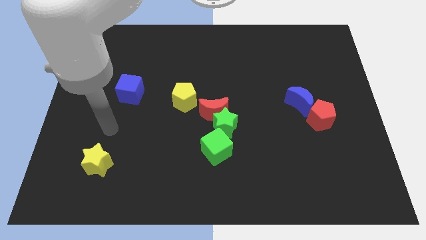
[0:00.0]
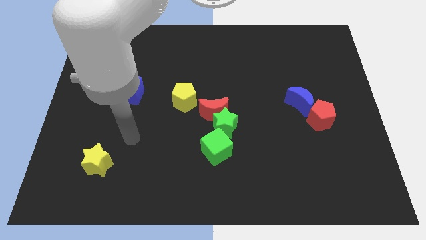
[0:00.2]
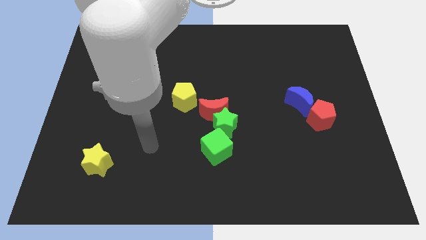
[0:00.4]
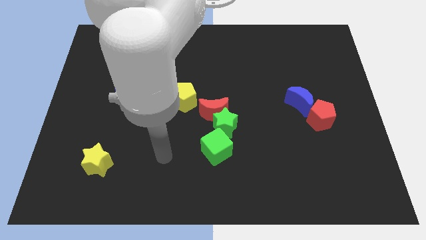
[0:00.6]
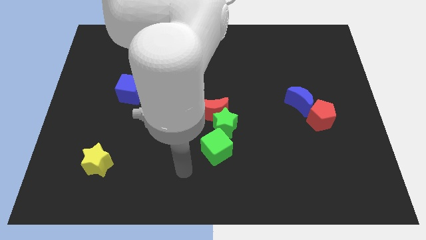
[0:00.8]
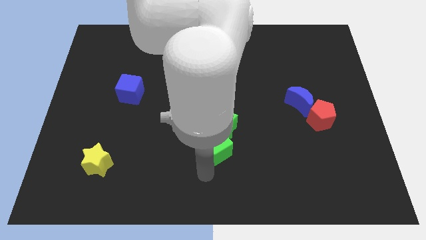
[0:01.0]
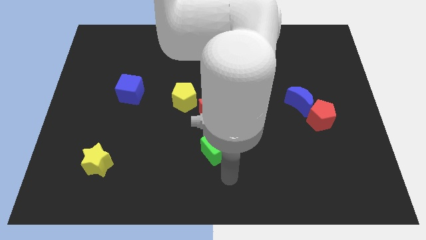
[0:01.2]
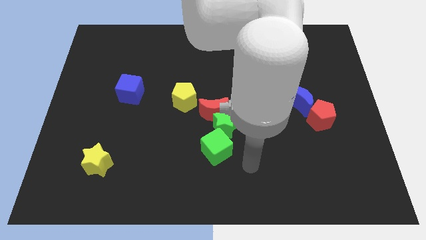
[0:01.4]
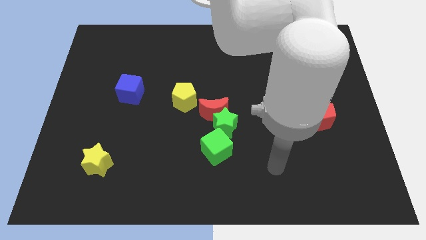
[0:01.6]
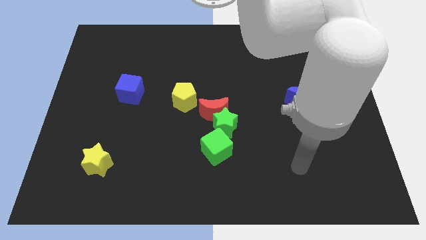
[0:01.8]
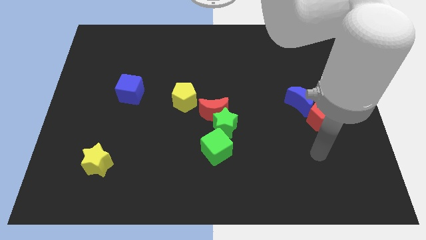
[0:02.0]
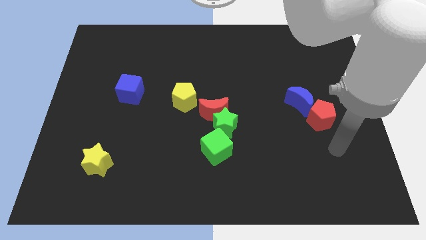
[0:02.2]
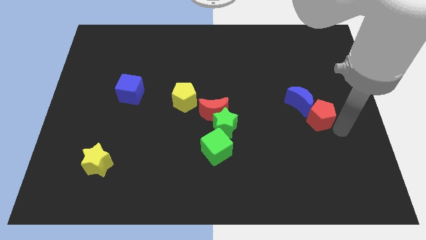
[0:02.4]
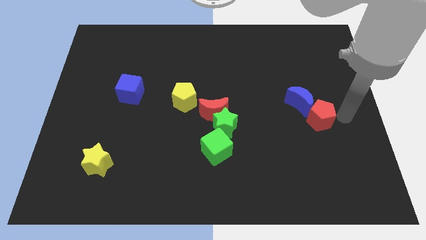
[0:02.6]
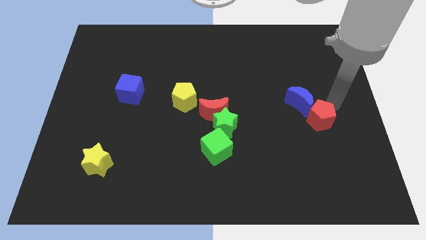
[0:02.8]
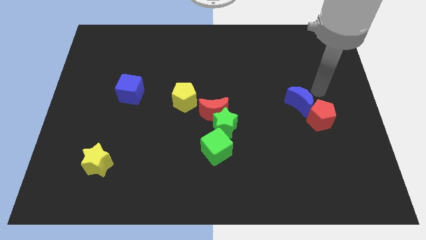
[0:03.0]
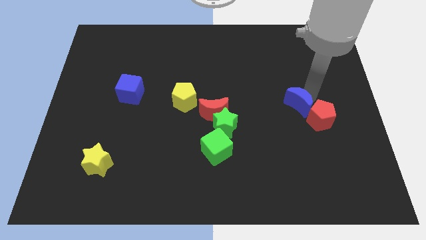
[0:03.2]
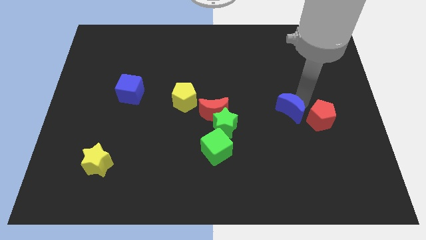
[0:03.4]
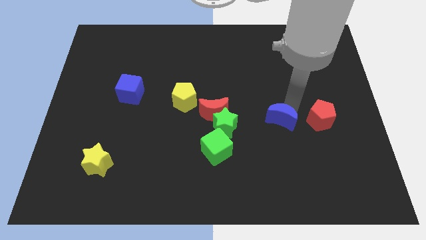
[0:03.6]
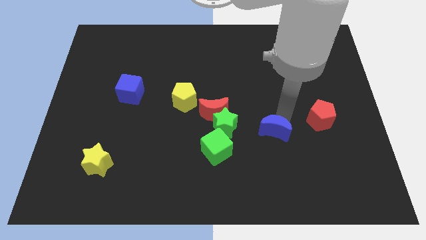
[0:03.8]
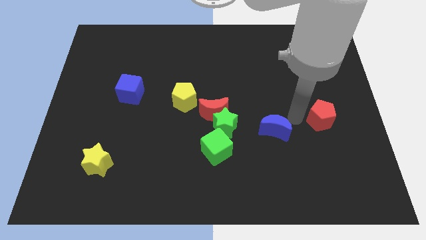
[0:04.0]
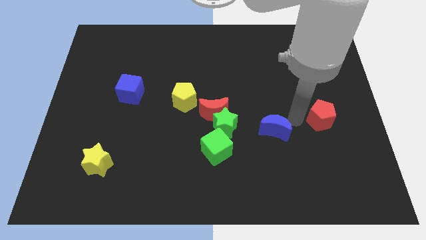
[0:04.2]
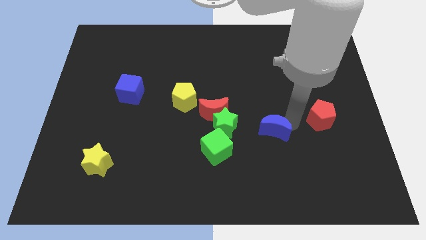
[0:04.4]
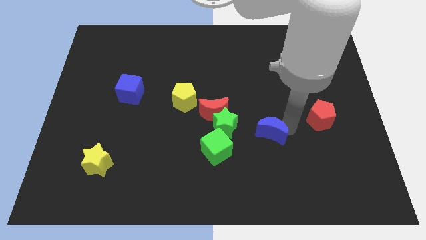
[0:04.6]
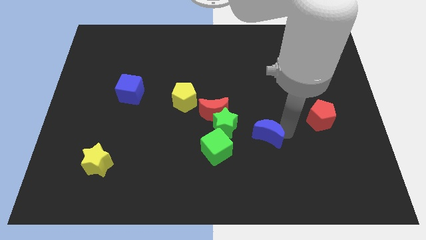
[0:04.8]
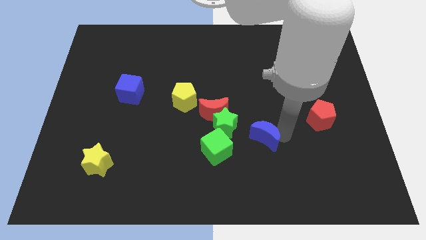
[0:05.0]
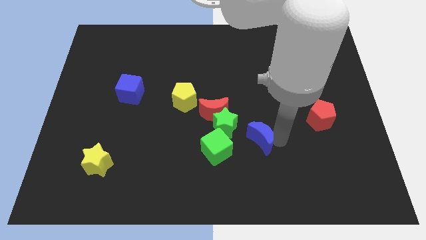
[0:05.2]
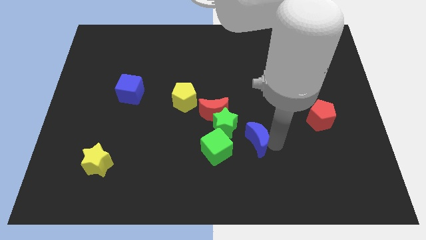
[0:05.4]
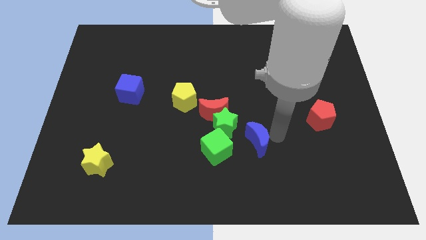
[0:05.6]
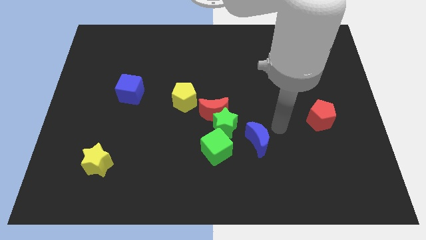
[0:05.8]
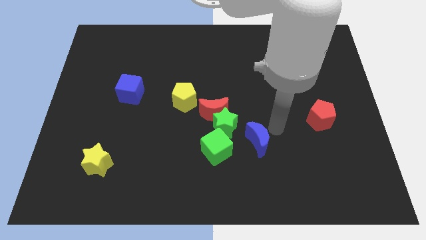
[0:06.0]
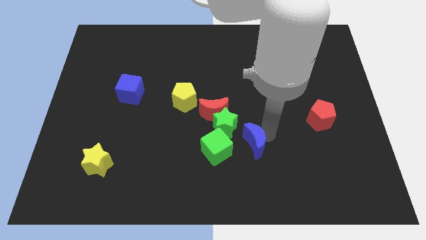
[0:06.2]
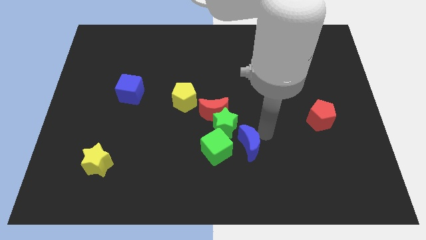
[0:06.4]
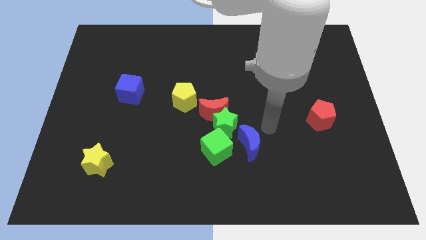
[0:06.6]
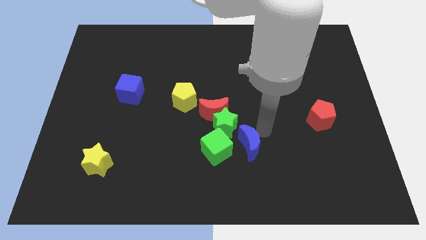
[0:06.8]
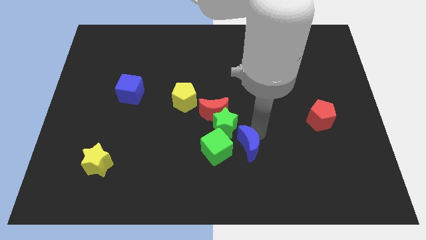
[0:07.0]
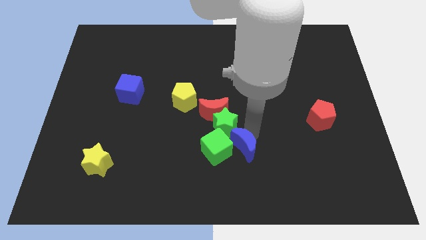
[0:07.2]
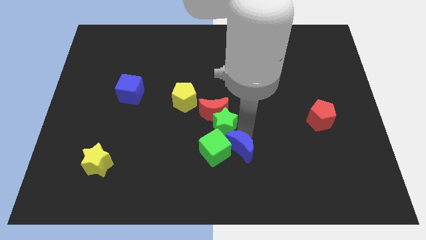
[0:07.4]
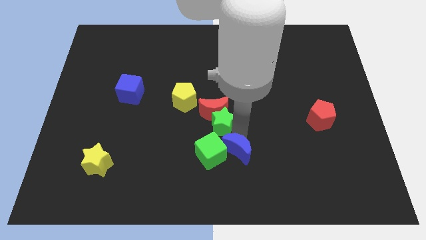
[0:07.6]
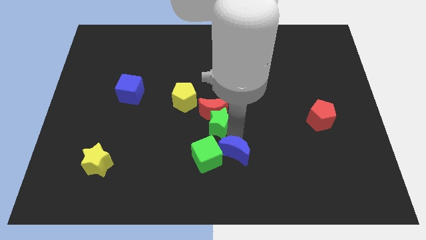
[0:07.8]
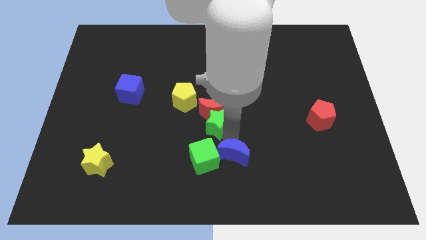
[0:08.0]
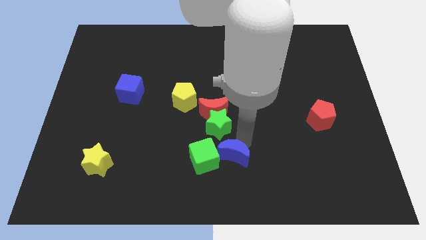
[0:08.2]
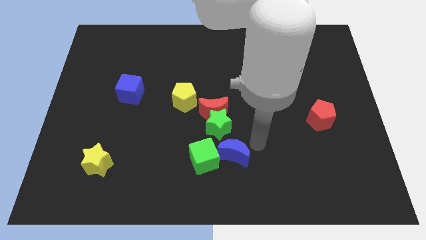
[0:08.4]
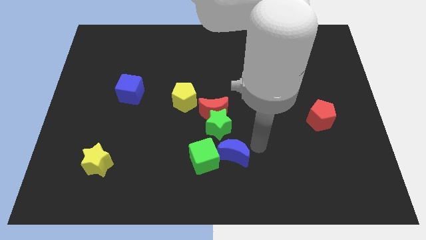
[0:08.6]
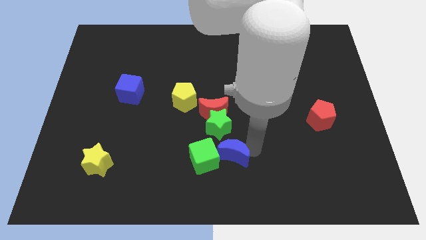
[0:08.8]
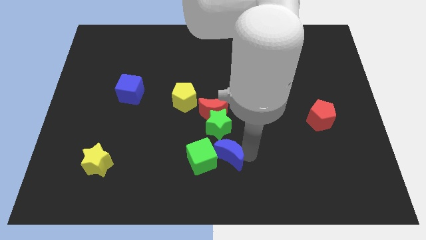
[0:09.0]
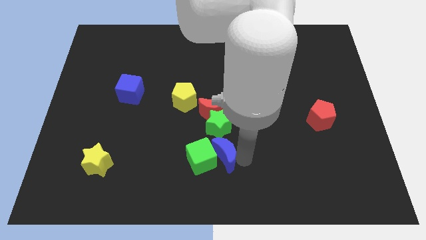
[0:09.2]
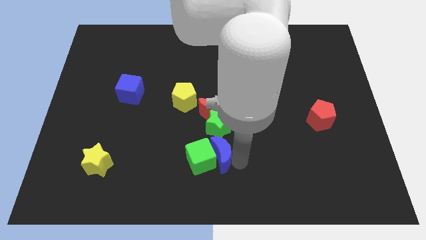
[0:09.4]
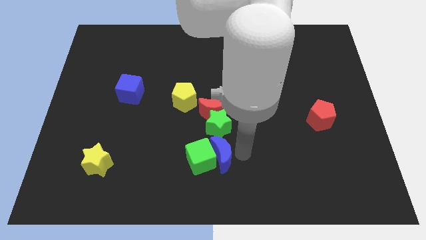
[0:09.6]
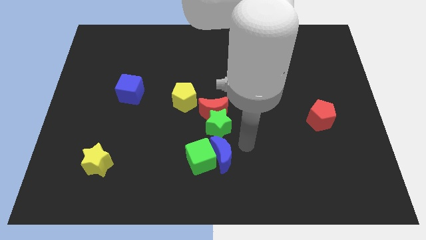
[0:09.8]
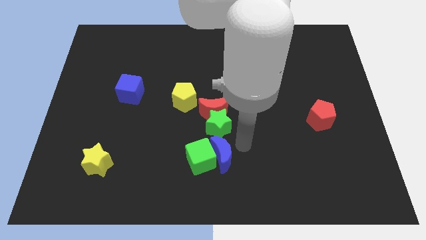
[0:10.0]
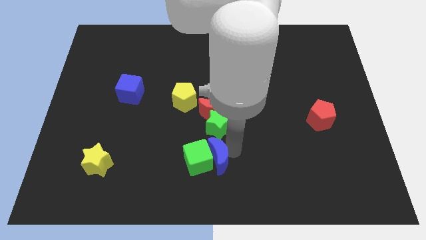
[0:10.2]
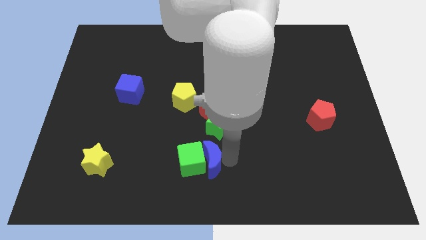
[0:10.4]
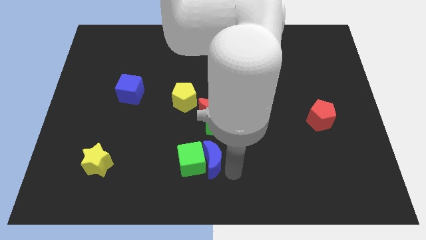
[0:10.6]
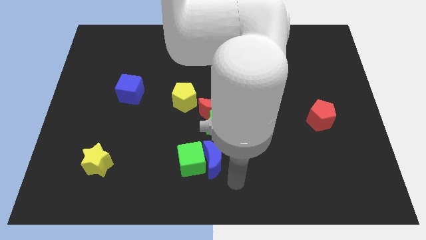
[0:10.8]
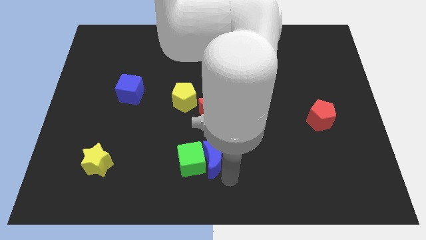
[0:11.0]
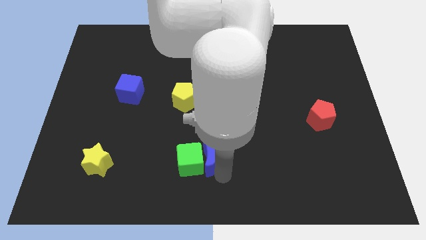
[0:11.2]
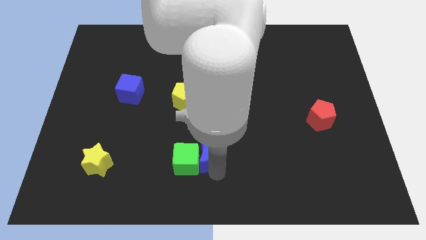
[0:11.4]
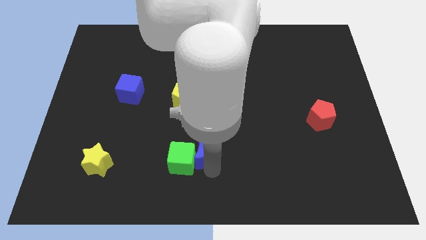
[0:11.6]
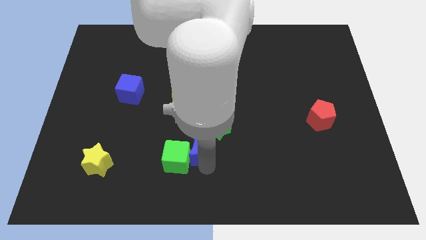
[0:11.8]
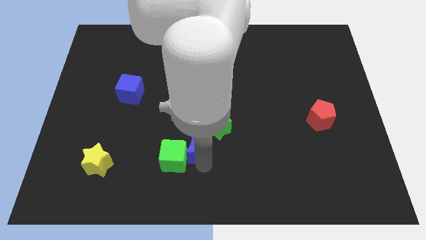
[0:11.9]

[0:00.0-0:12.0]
push the blue moon to the bottom left side of the red moon

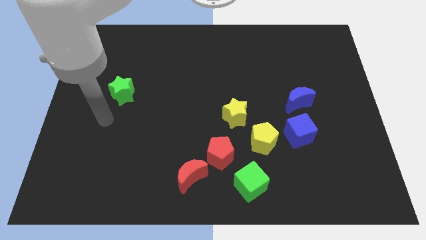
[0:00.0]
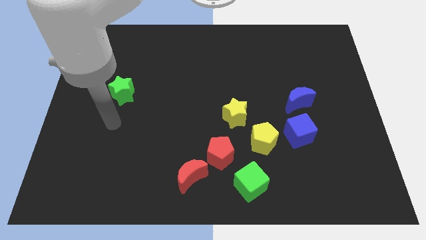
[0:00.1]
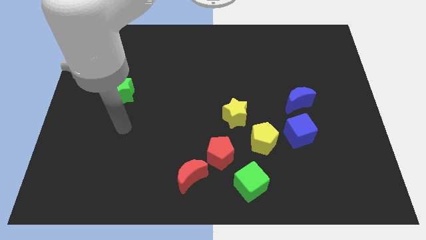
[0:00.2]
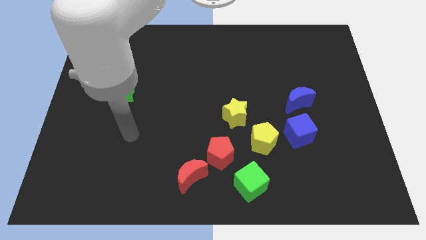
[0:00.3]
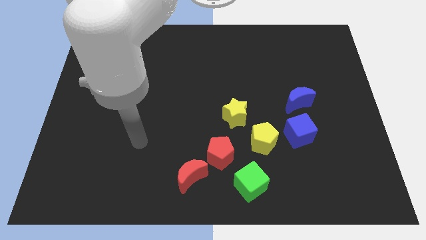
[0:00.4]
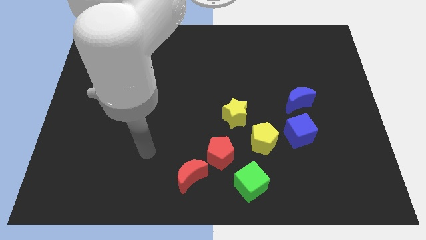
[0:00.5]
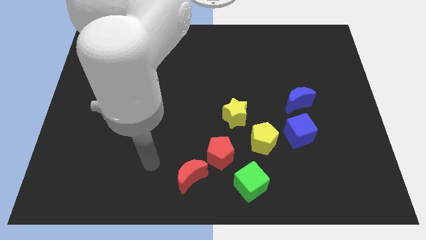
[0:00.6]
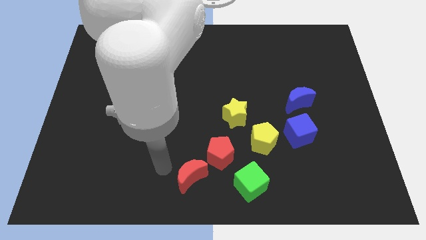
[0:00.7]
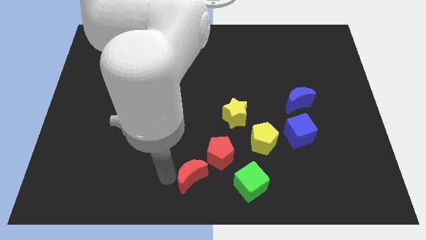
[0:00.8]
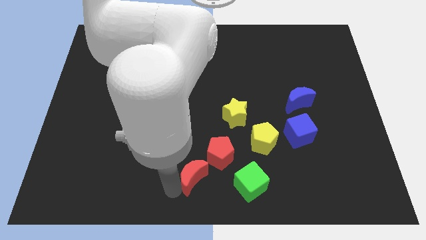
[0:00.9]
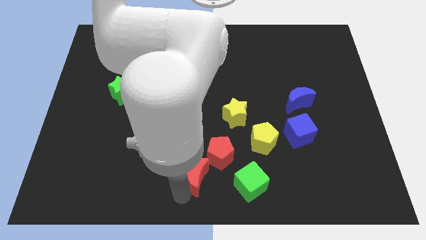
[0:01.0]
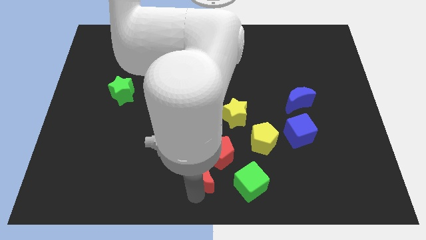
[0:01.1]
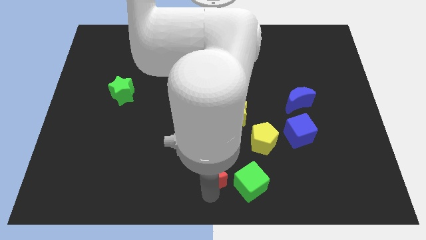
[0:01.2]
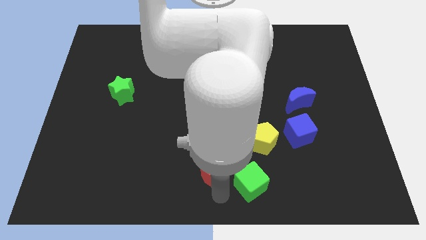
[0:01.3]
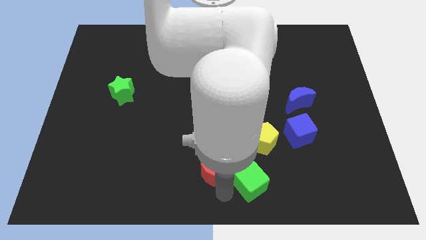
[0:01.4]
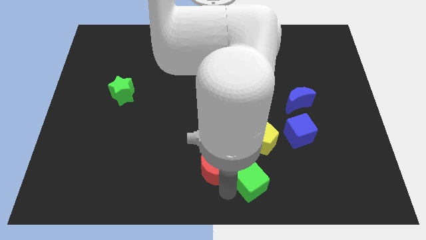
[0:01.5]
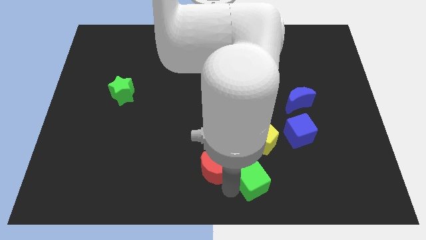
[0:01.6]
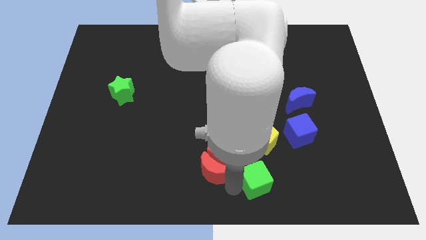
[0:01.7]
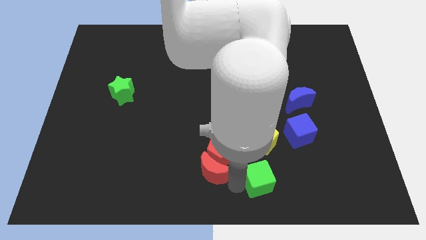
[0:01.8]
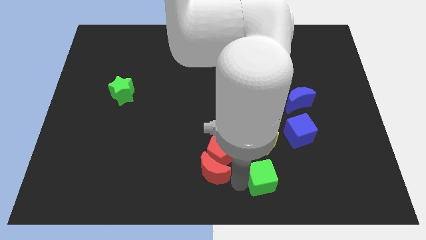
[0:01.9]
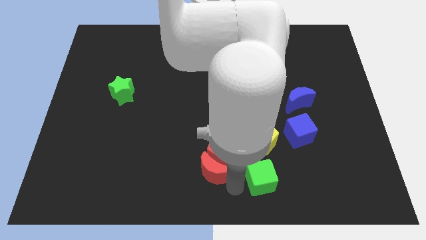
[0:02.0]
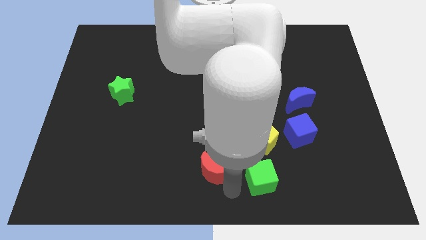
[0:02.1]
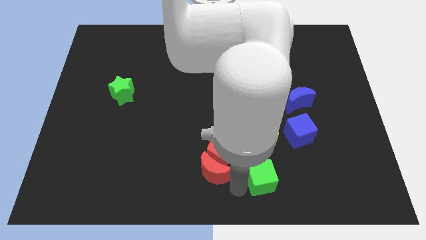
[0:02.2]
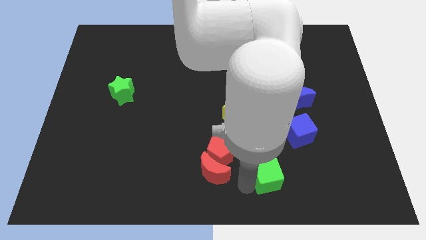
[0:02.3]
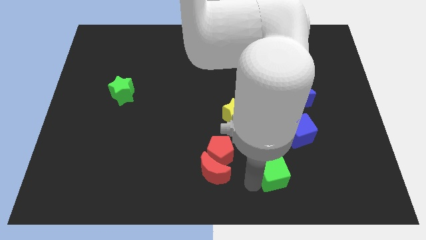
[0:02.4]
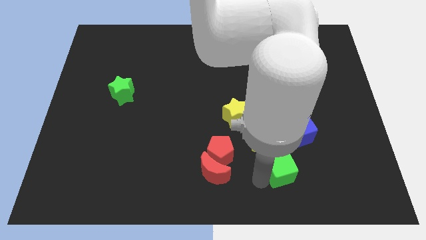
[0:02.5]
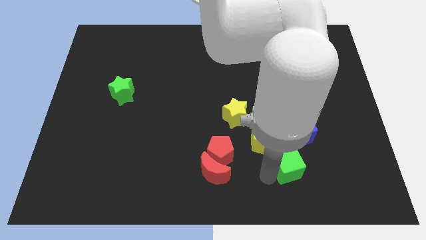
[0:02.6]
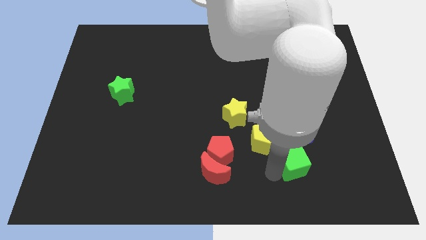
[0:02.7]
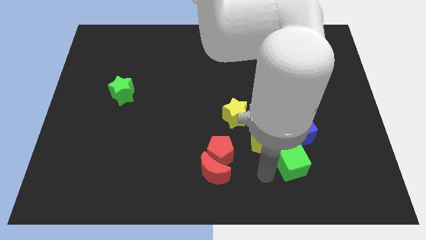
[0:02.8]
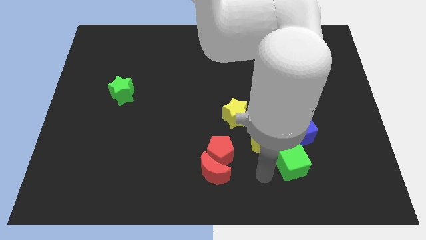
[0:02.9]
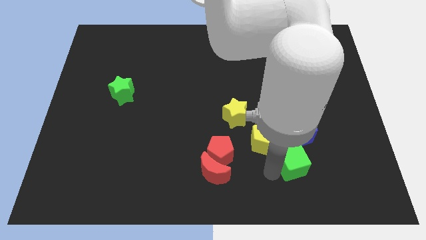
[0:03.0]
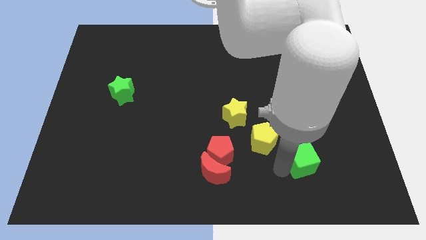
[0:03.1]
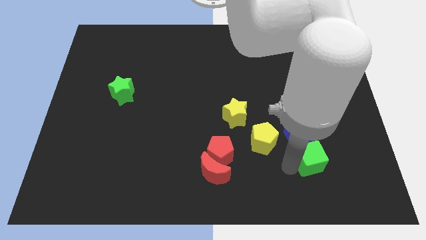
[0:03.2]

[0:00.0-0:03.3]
push the green cube diagonally down and to the right of the blue cube
